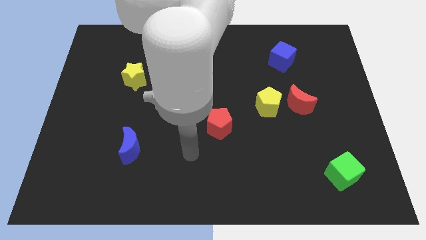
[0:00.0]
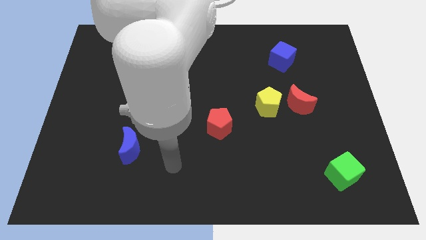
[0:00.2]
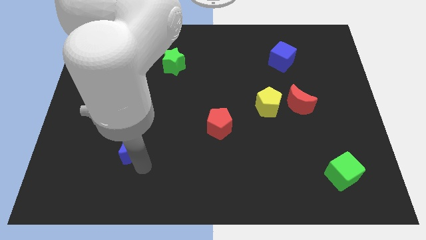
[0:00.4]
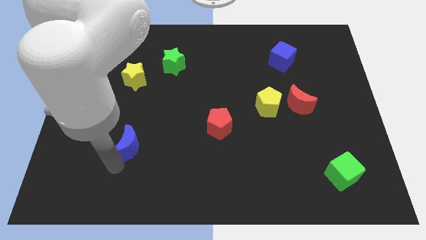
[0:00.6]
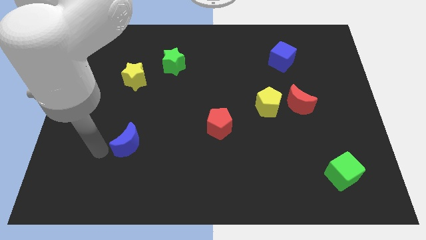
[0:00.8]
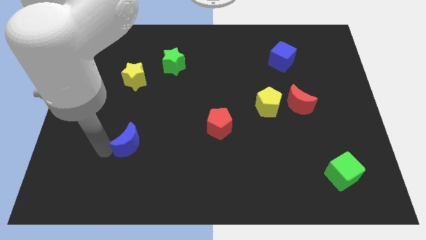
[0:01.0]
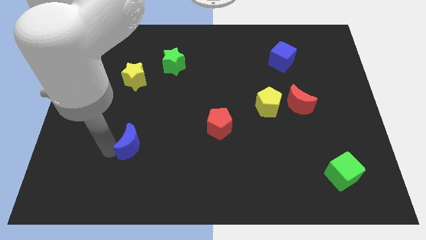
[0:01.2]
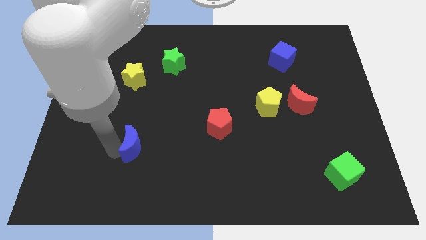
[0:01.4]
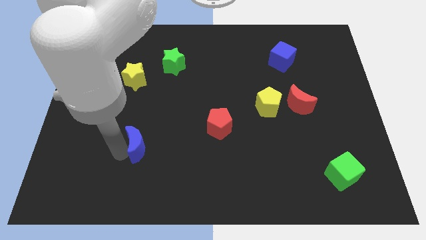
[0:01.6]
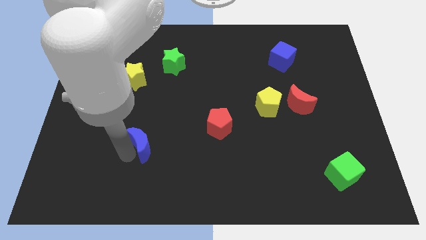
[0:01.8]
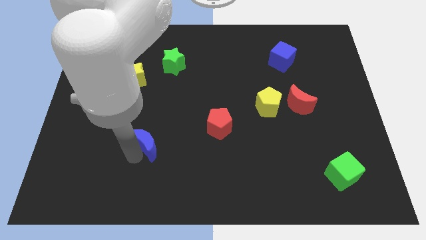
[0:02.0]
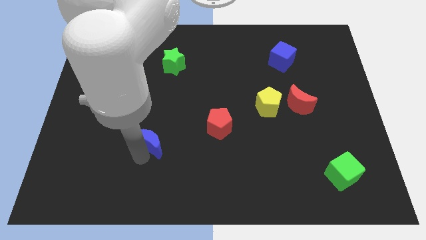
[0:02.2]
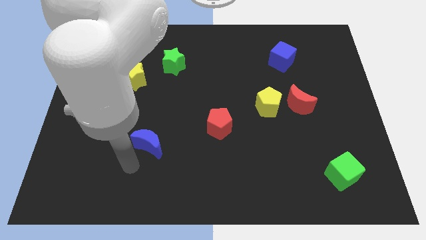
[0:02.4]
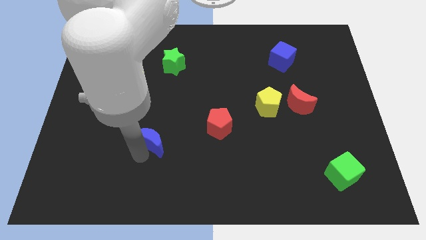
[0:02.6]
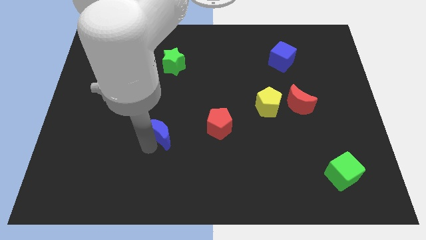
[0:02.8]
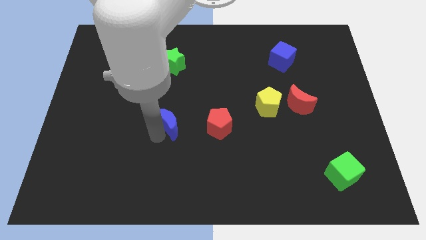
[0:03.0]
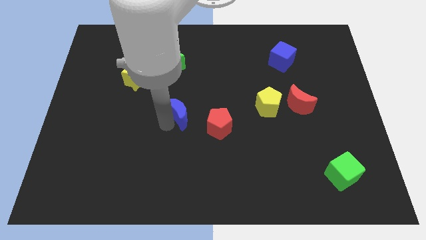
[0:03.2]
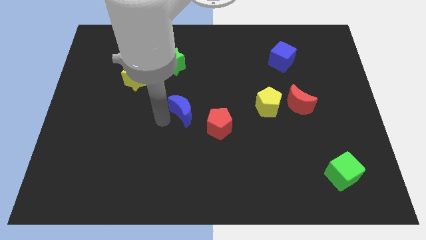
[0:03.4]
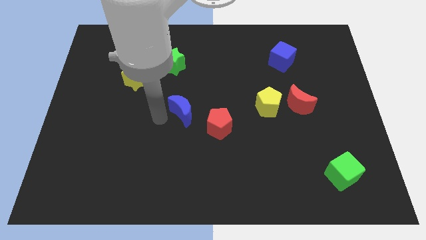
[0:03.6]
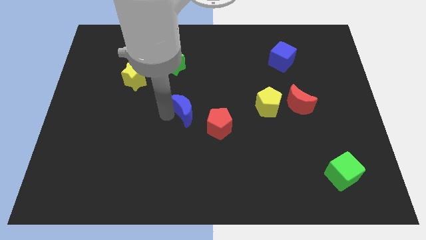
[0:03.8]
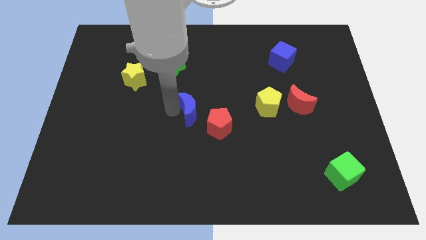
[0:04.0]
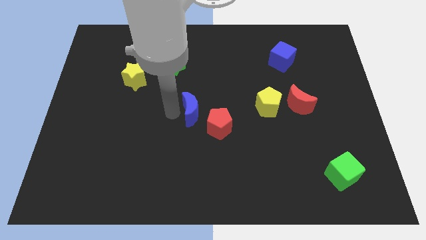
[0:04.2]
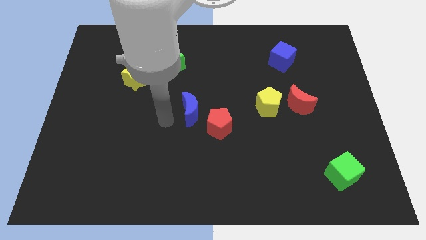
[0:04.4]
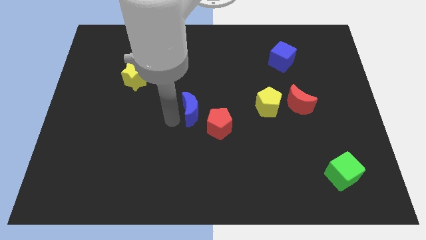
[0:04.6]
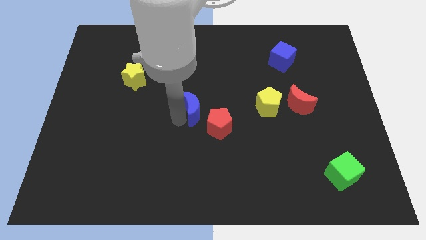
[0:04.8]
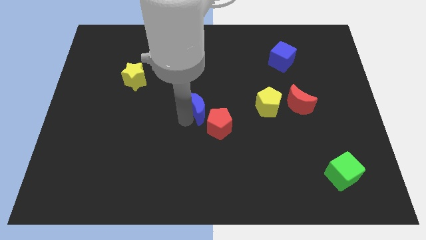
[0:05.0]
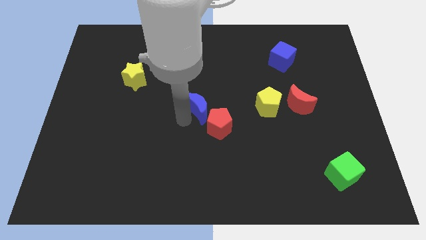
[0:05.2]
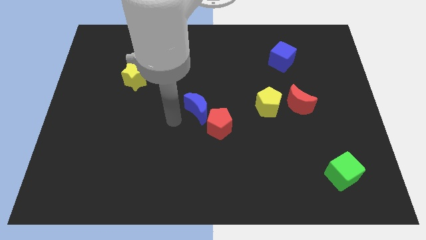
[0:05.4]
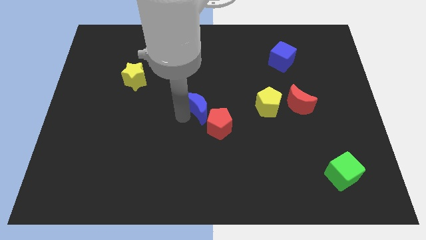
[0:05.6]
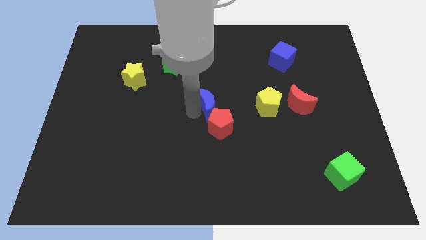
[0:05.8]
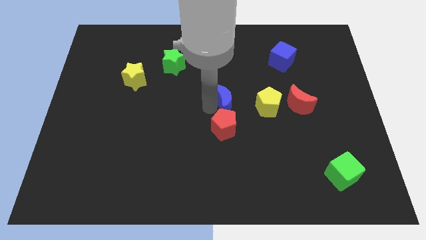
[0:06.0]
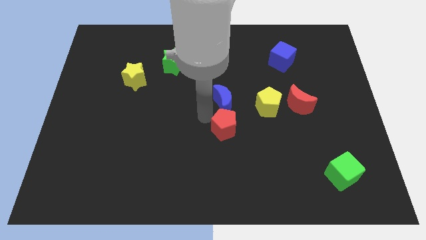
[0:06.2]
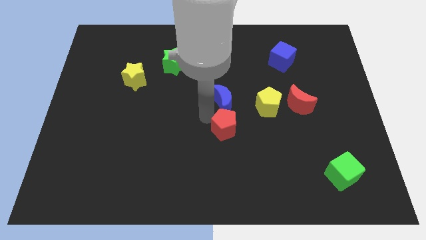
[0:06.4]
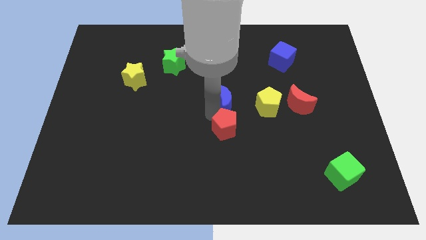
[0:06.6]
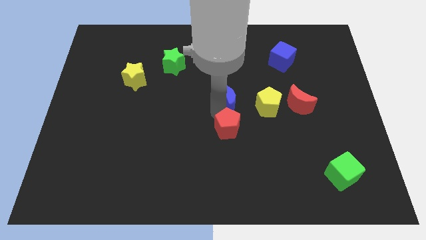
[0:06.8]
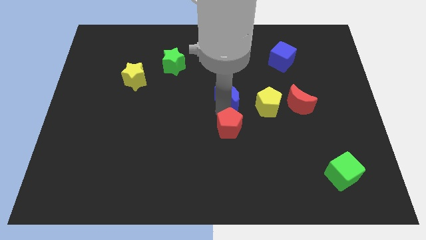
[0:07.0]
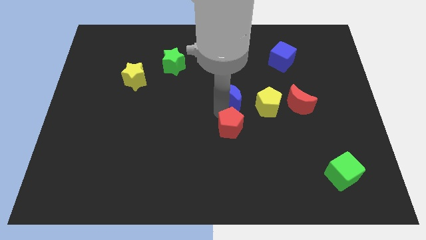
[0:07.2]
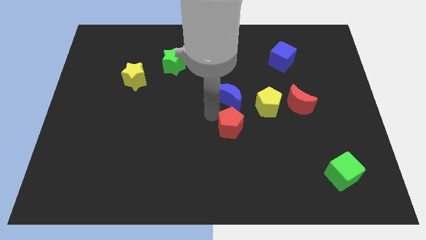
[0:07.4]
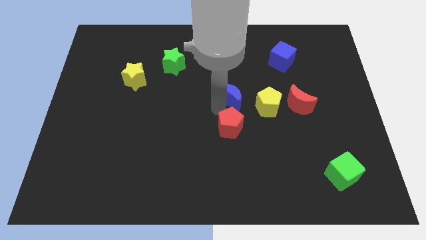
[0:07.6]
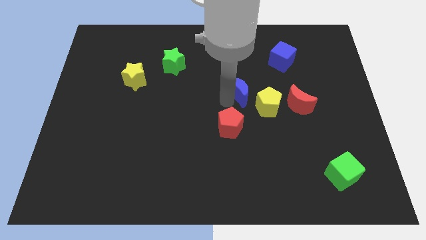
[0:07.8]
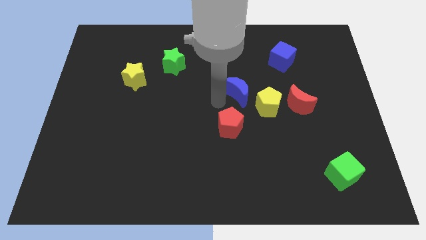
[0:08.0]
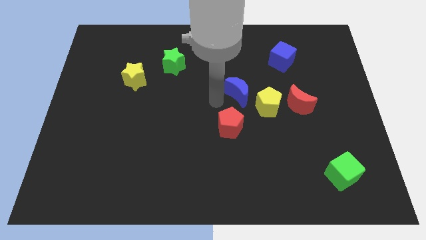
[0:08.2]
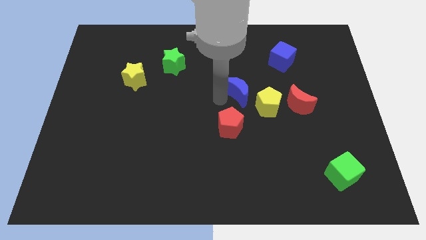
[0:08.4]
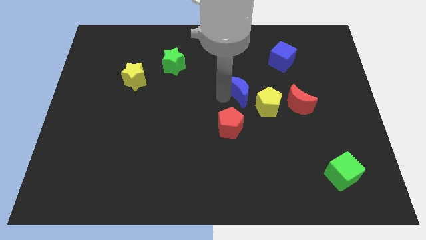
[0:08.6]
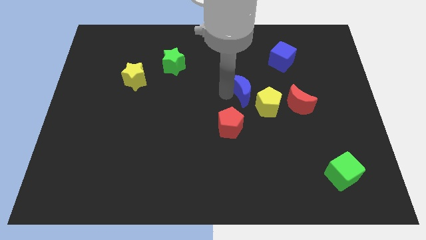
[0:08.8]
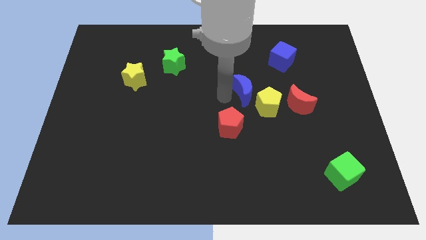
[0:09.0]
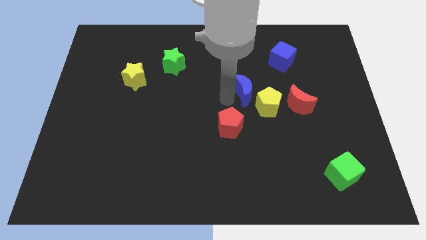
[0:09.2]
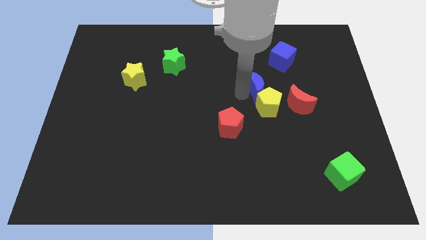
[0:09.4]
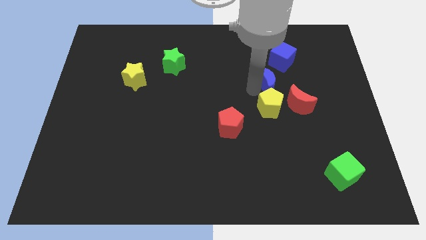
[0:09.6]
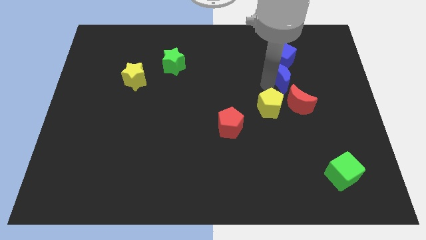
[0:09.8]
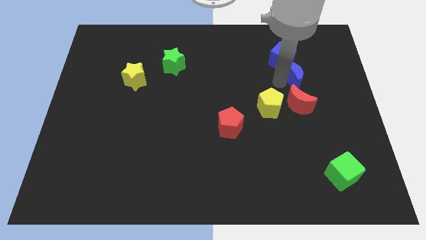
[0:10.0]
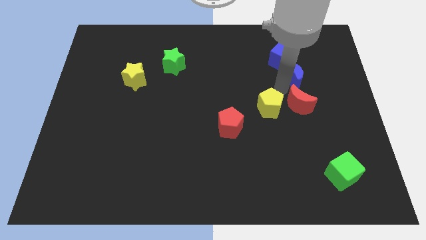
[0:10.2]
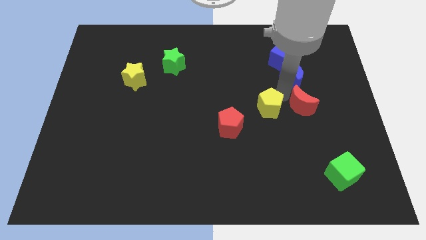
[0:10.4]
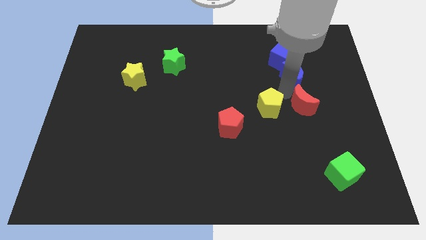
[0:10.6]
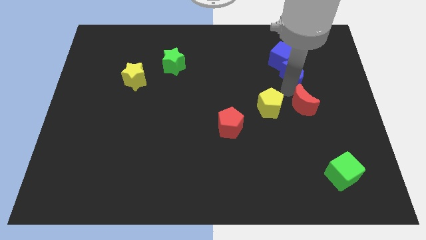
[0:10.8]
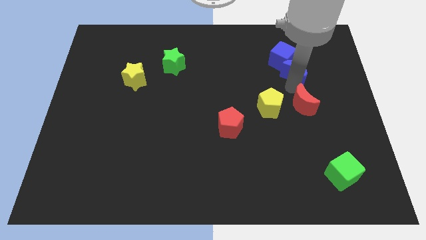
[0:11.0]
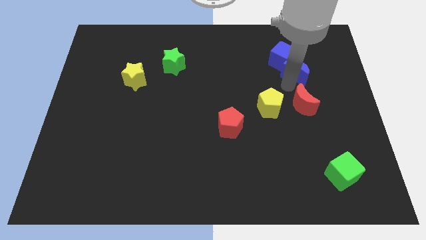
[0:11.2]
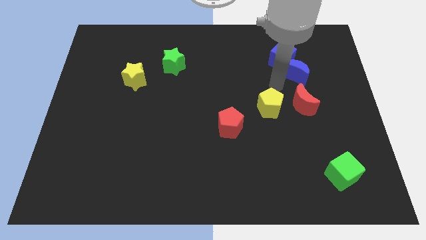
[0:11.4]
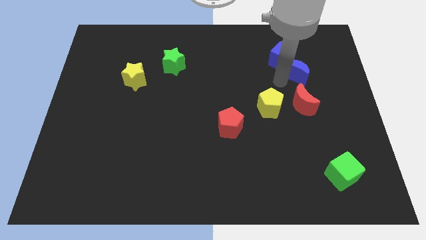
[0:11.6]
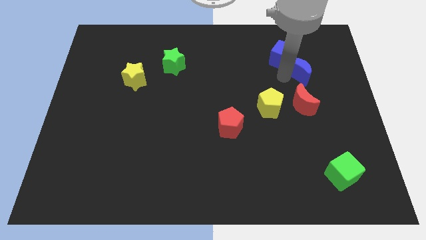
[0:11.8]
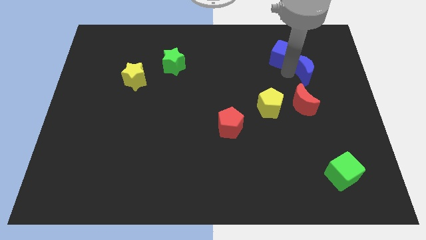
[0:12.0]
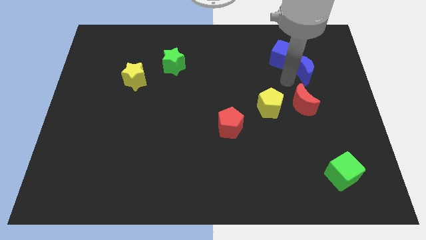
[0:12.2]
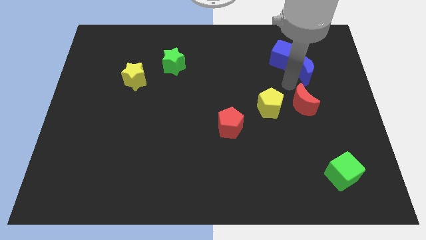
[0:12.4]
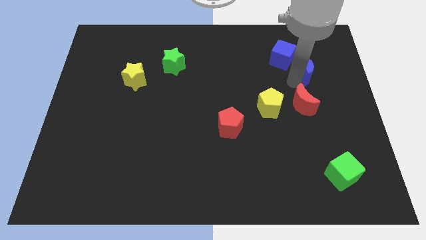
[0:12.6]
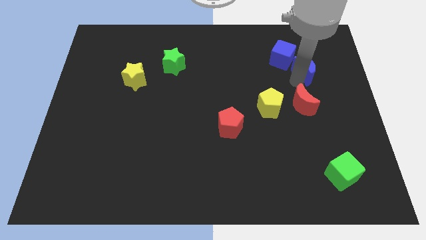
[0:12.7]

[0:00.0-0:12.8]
slide the blue moon to the right side of the blue cube

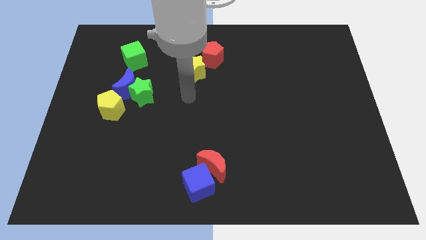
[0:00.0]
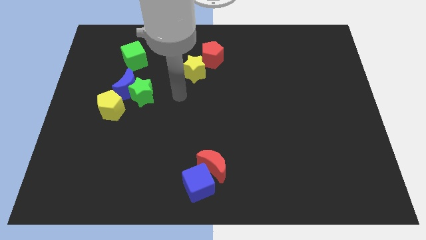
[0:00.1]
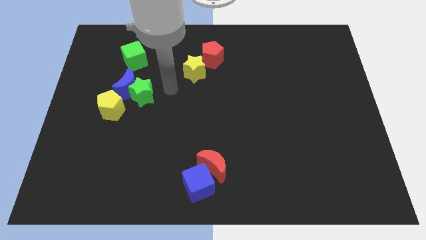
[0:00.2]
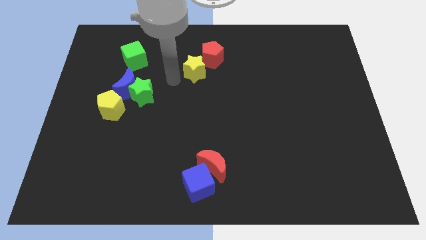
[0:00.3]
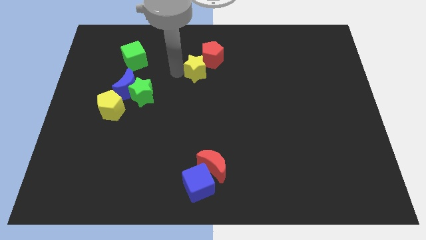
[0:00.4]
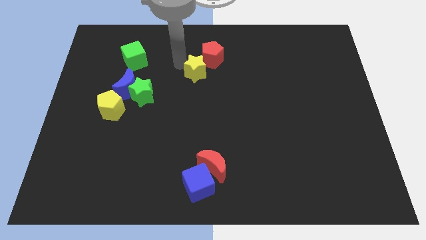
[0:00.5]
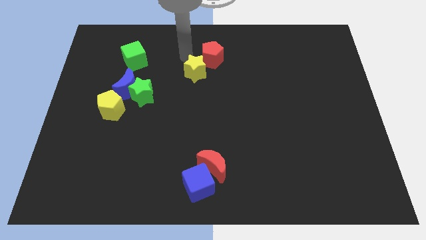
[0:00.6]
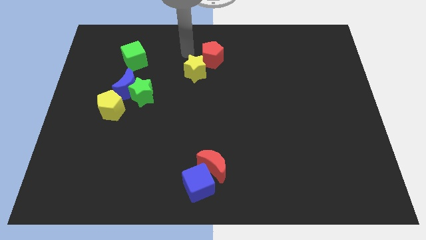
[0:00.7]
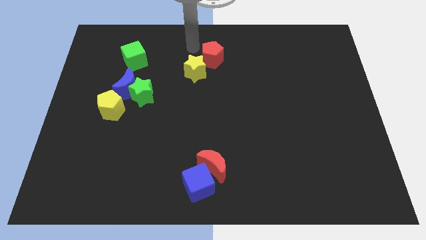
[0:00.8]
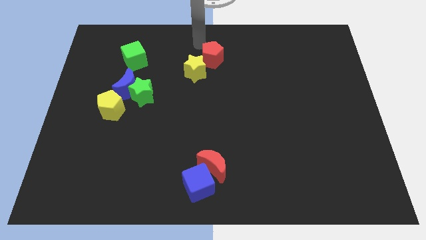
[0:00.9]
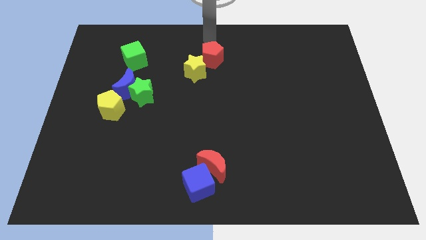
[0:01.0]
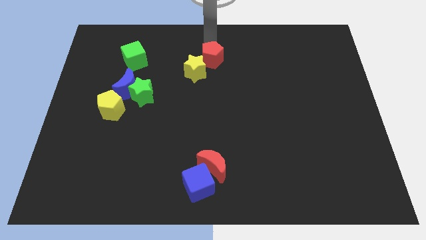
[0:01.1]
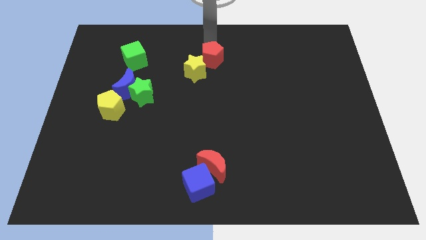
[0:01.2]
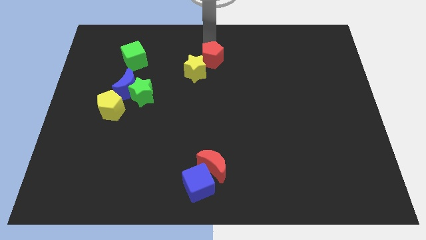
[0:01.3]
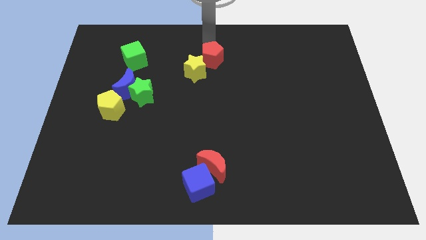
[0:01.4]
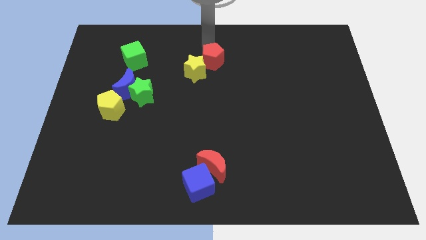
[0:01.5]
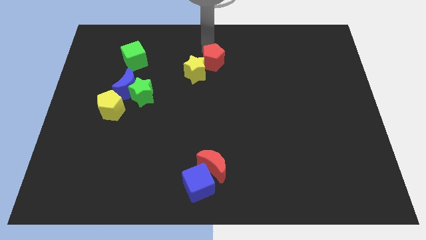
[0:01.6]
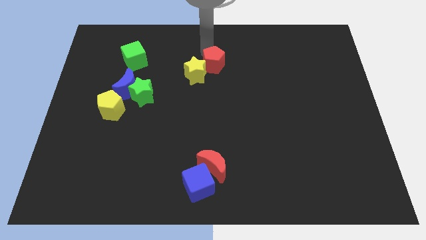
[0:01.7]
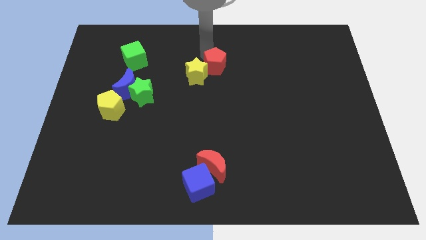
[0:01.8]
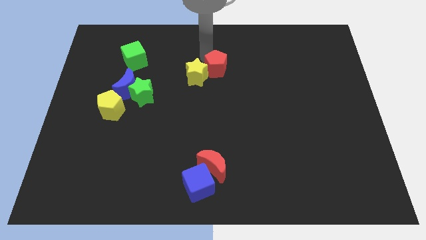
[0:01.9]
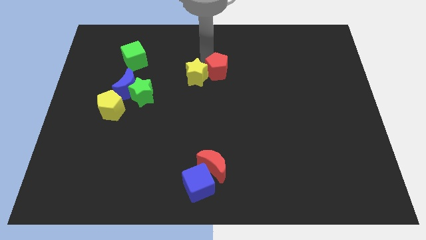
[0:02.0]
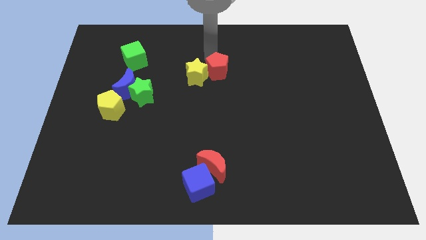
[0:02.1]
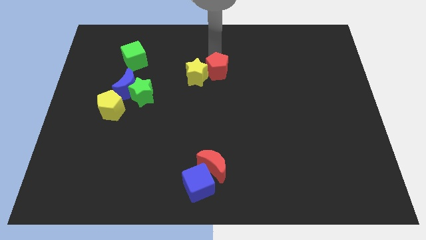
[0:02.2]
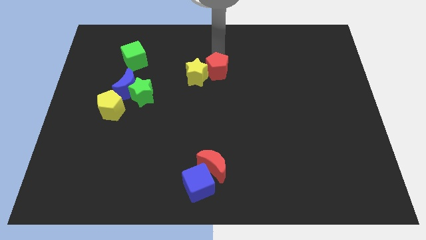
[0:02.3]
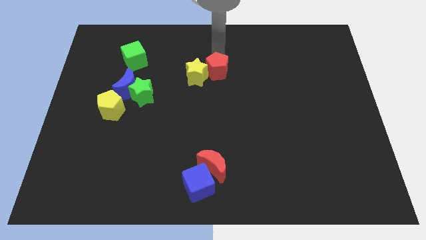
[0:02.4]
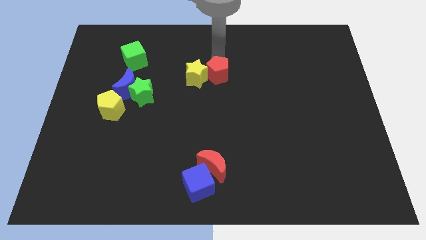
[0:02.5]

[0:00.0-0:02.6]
move the red pentagon to the bottom right side of the yellow star
